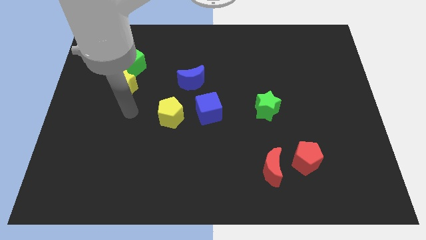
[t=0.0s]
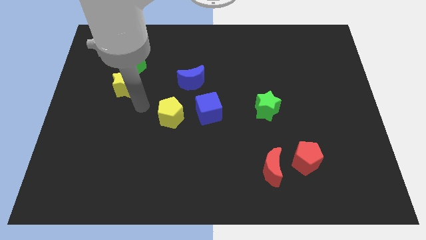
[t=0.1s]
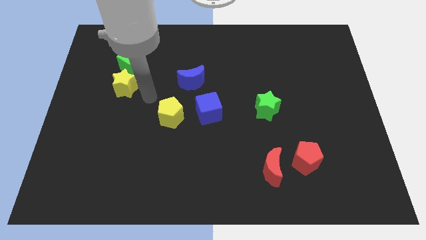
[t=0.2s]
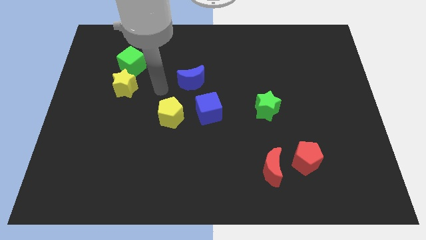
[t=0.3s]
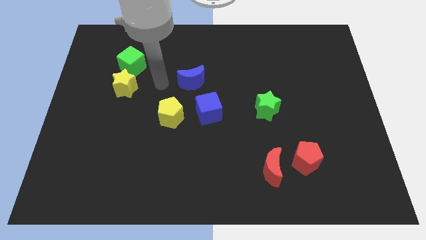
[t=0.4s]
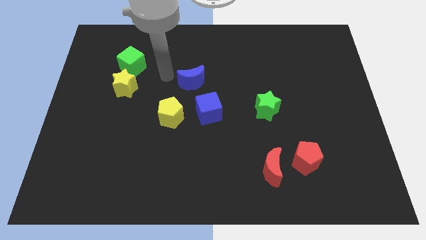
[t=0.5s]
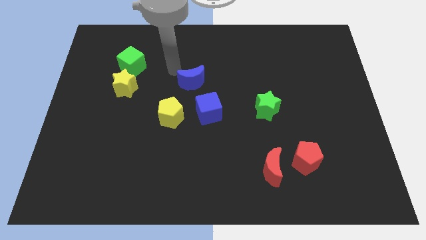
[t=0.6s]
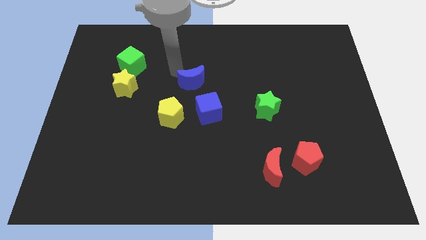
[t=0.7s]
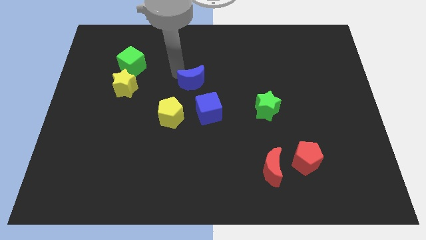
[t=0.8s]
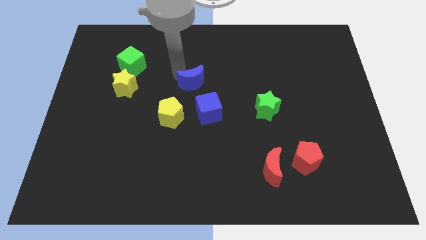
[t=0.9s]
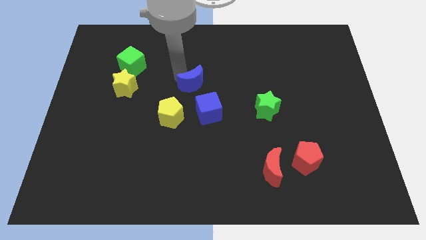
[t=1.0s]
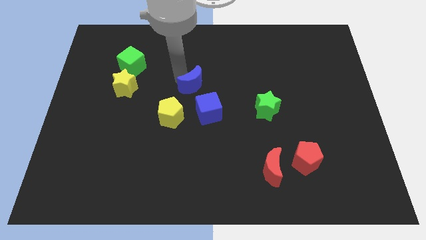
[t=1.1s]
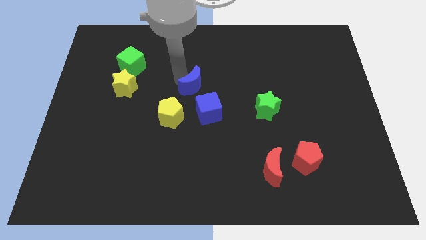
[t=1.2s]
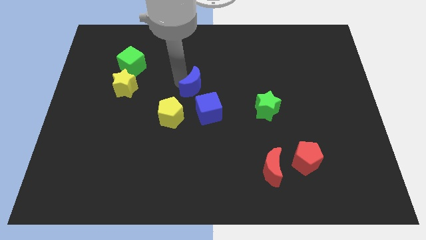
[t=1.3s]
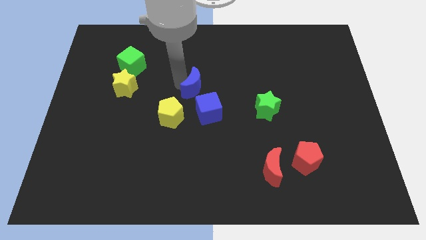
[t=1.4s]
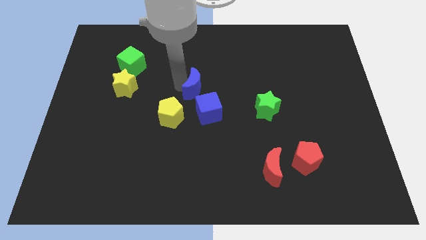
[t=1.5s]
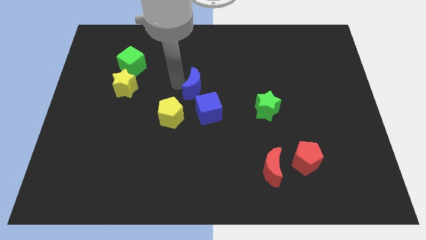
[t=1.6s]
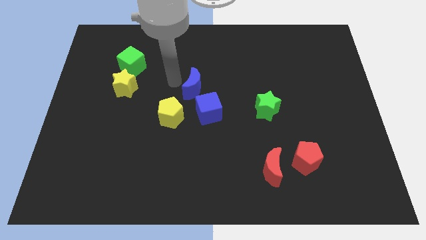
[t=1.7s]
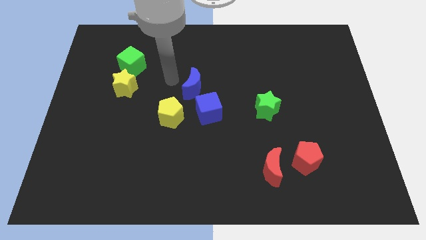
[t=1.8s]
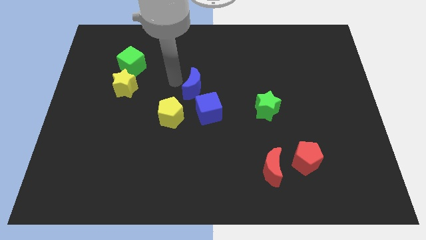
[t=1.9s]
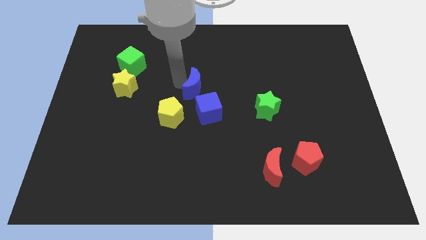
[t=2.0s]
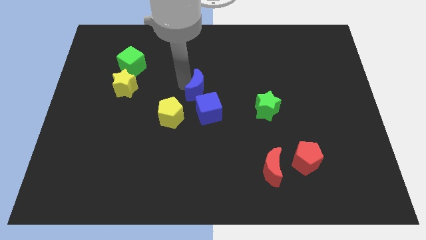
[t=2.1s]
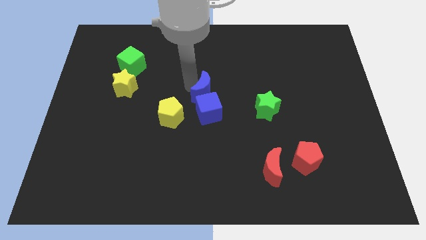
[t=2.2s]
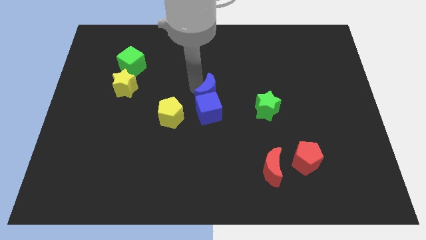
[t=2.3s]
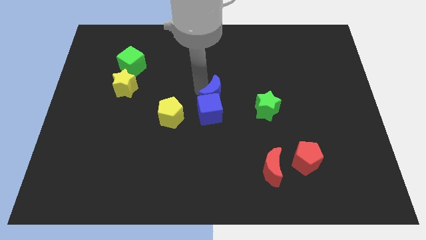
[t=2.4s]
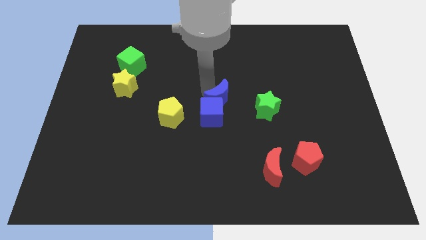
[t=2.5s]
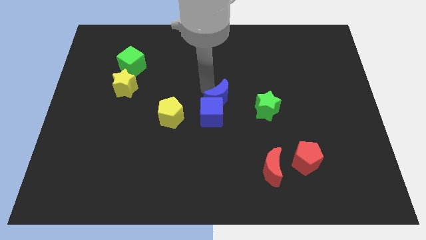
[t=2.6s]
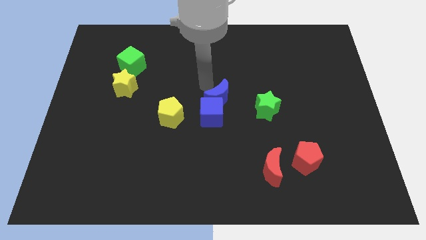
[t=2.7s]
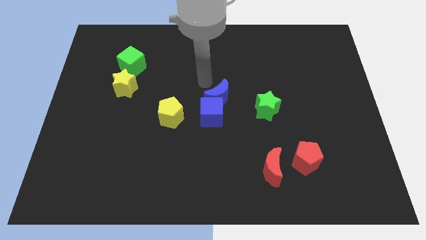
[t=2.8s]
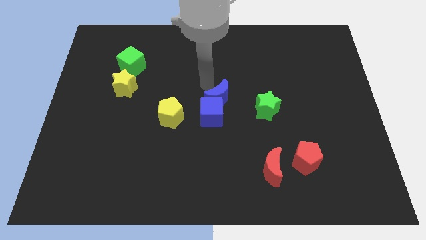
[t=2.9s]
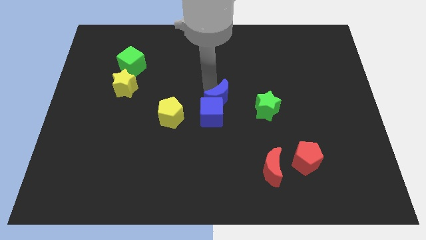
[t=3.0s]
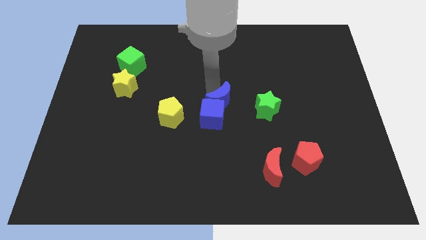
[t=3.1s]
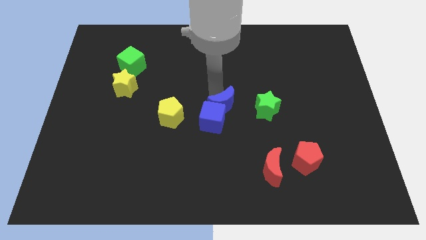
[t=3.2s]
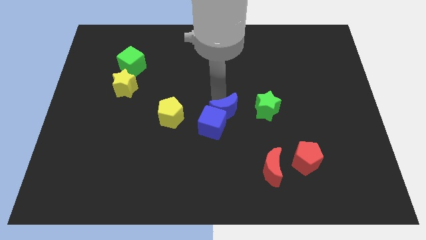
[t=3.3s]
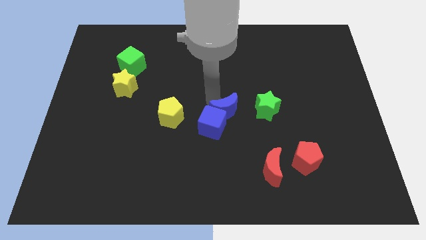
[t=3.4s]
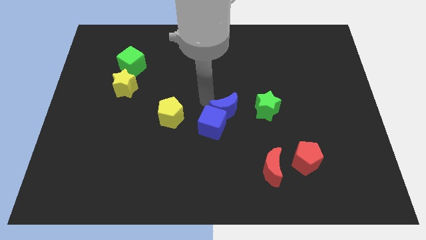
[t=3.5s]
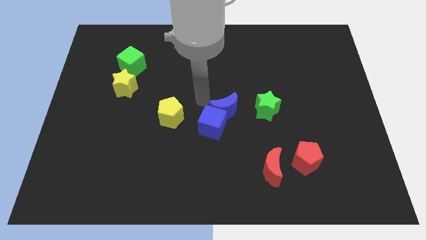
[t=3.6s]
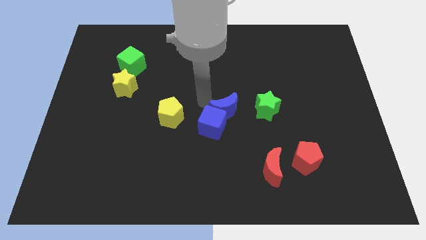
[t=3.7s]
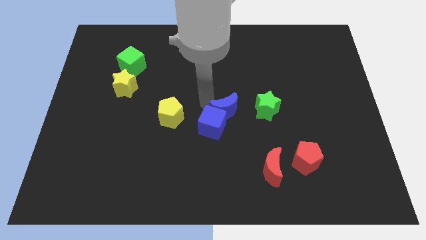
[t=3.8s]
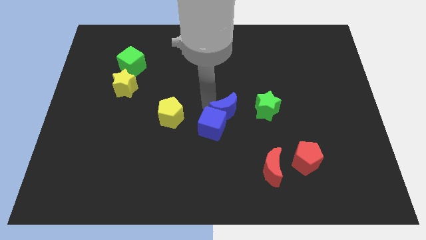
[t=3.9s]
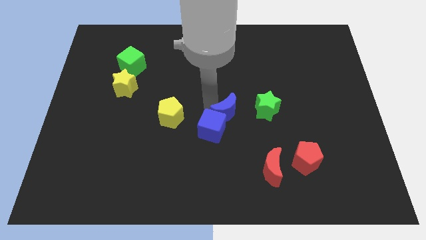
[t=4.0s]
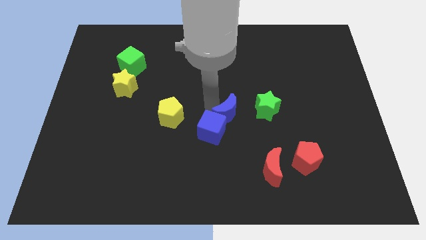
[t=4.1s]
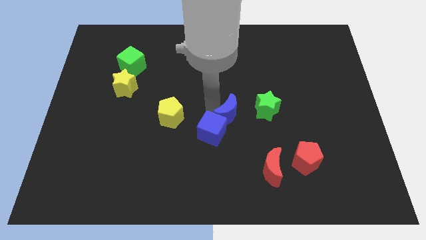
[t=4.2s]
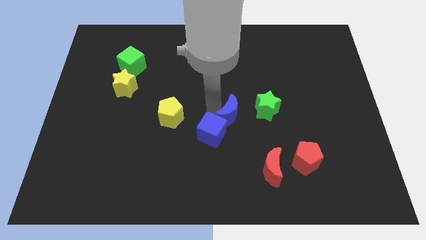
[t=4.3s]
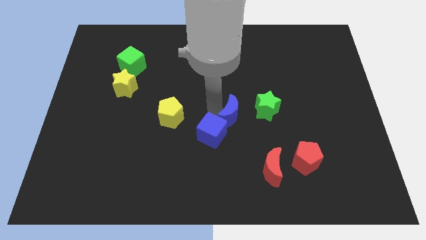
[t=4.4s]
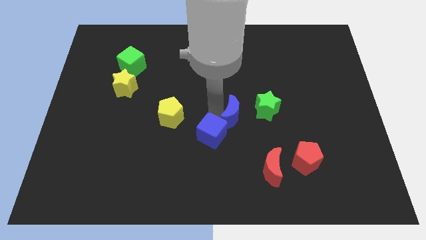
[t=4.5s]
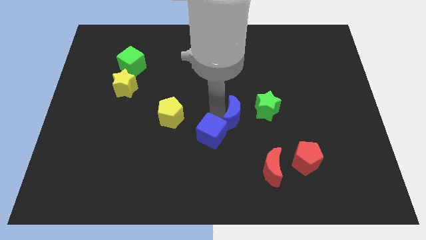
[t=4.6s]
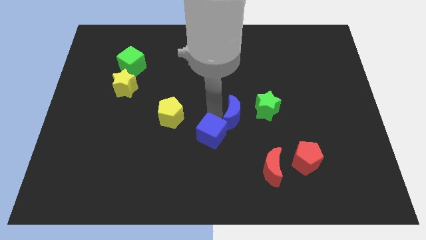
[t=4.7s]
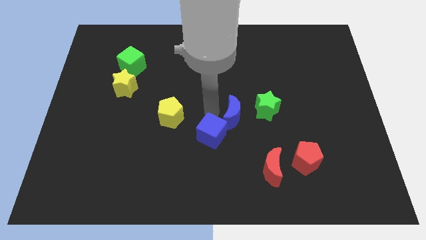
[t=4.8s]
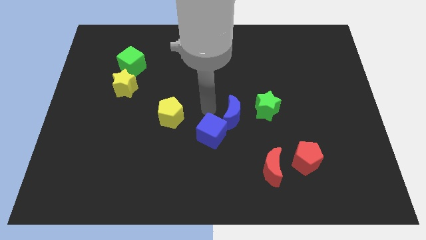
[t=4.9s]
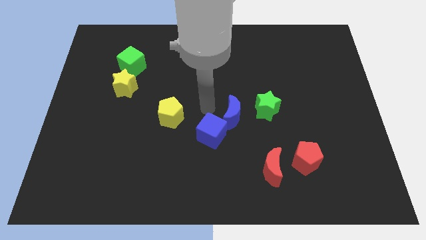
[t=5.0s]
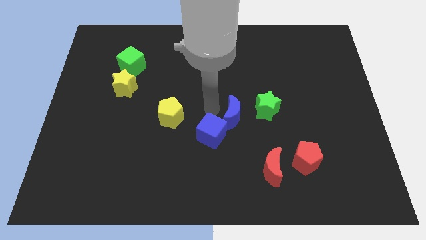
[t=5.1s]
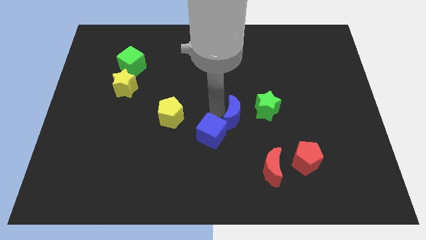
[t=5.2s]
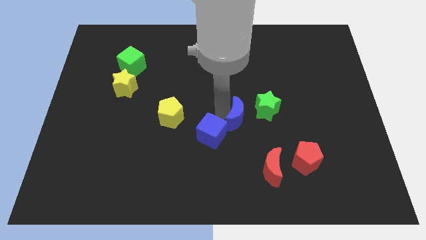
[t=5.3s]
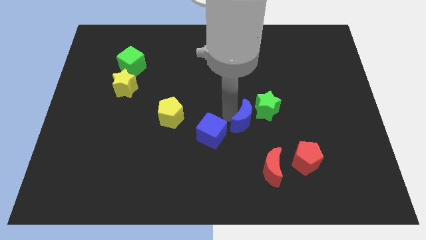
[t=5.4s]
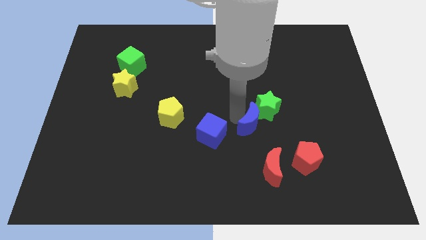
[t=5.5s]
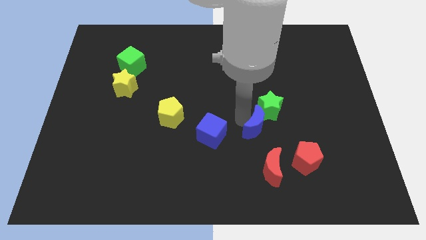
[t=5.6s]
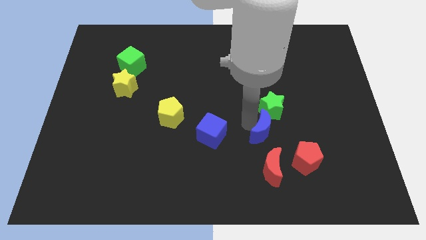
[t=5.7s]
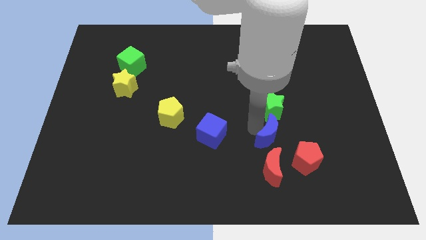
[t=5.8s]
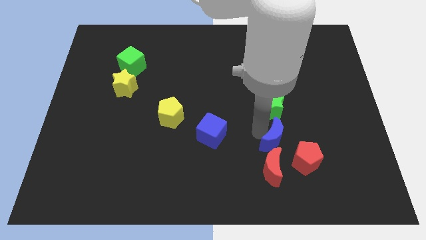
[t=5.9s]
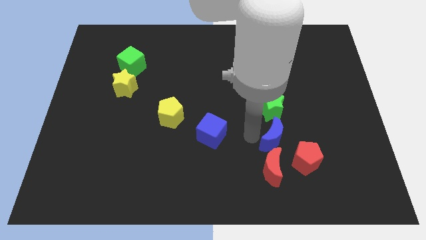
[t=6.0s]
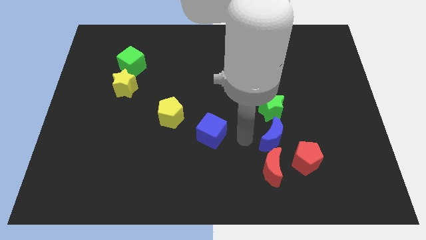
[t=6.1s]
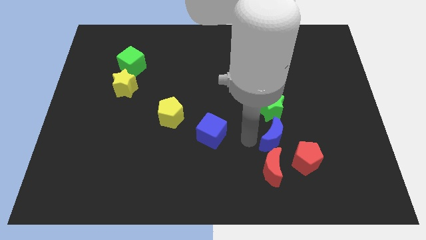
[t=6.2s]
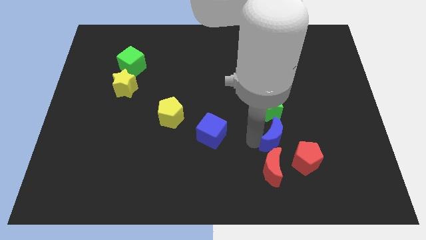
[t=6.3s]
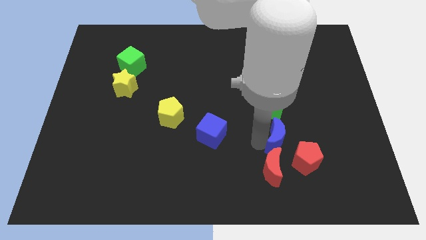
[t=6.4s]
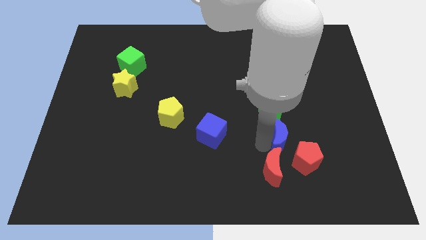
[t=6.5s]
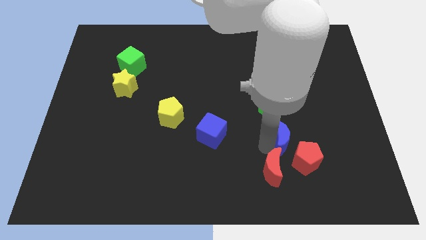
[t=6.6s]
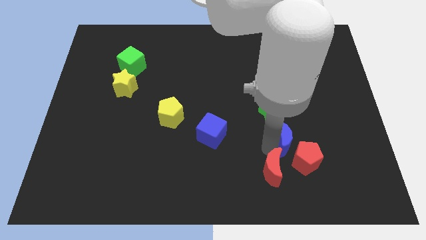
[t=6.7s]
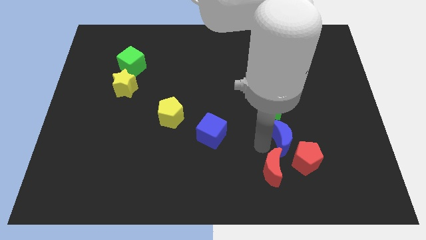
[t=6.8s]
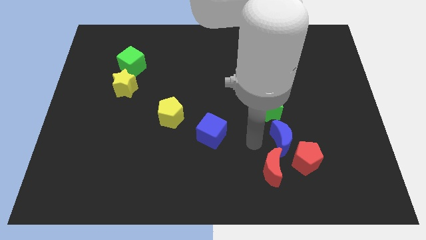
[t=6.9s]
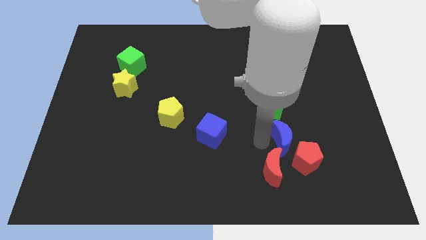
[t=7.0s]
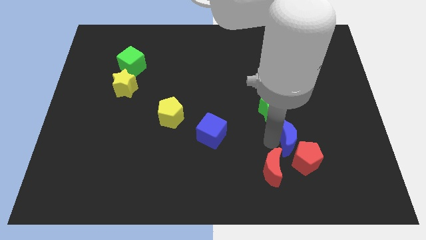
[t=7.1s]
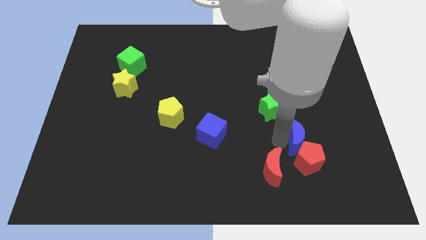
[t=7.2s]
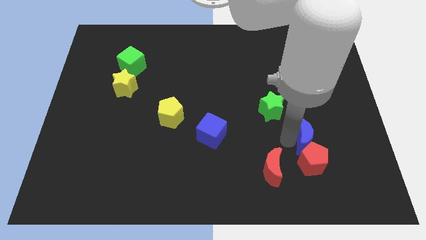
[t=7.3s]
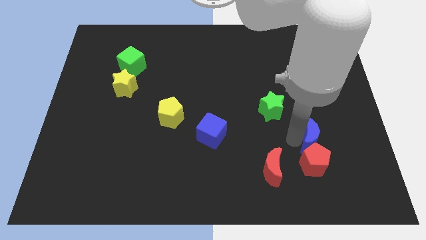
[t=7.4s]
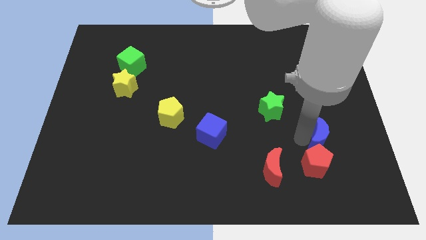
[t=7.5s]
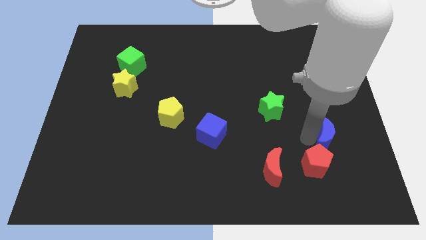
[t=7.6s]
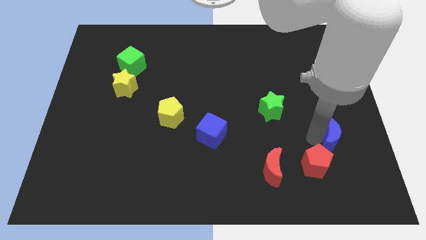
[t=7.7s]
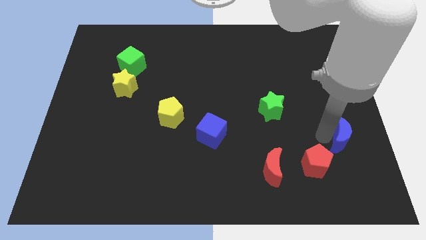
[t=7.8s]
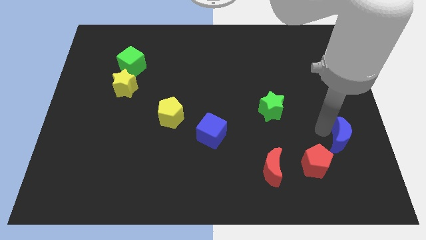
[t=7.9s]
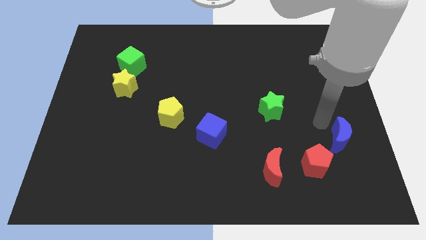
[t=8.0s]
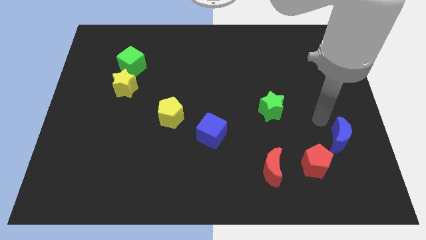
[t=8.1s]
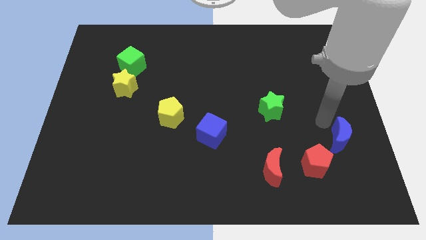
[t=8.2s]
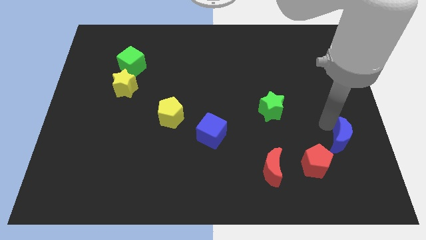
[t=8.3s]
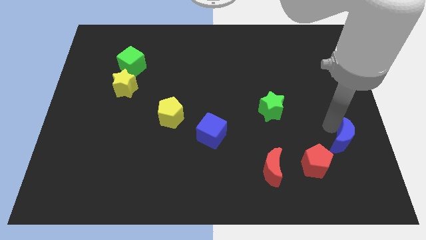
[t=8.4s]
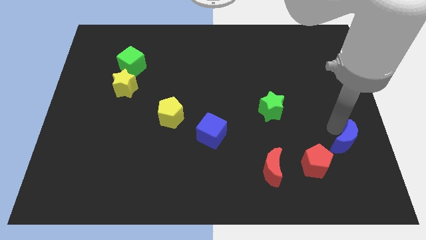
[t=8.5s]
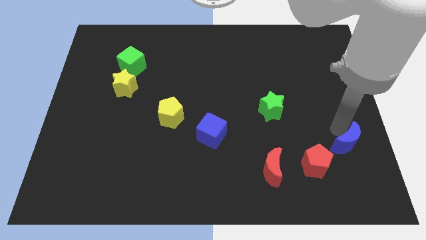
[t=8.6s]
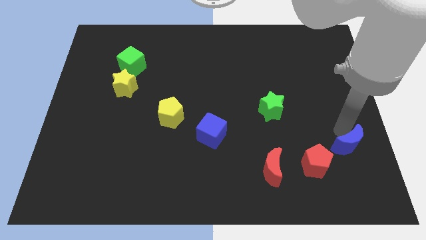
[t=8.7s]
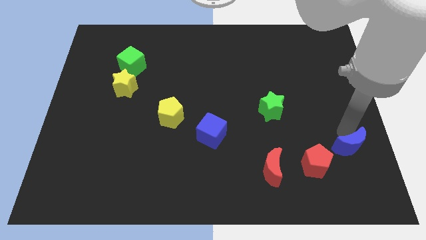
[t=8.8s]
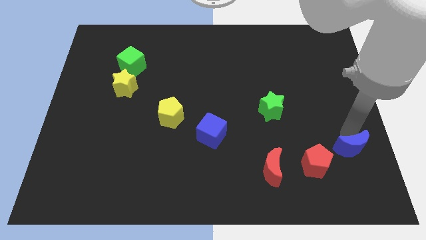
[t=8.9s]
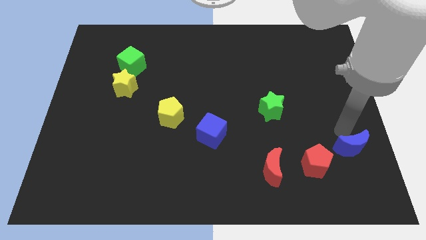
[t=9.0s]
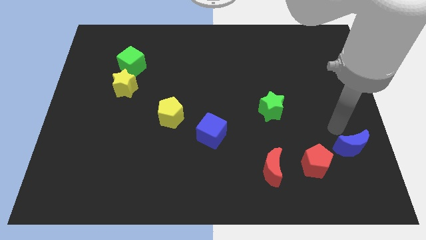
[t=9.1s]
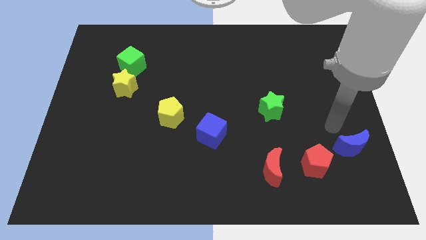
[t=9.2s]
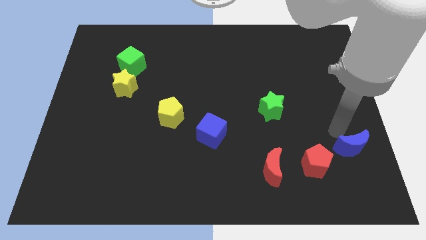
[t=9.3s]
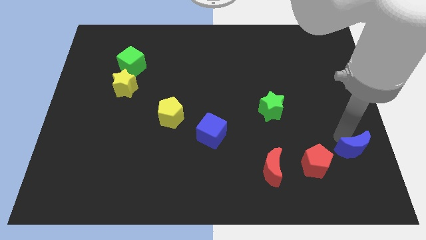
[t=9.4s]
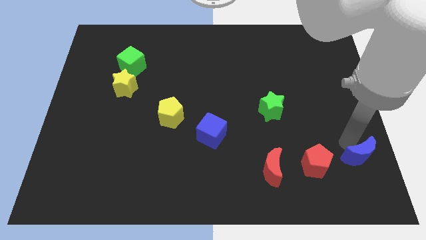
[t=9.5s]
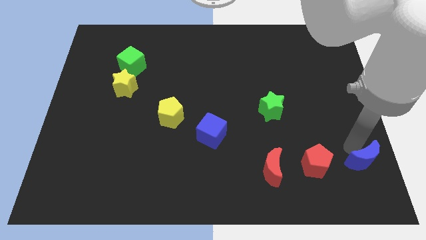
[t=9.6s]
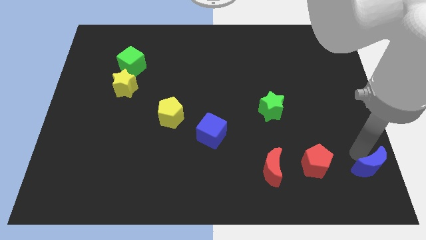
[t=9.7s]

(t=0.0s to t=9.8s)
put the blue moon to the lower right corner
